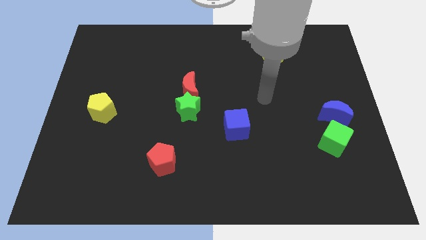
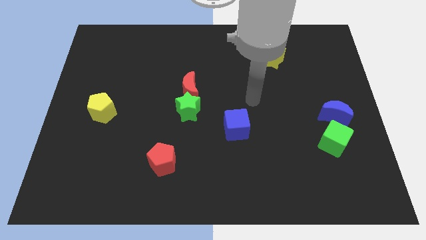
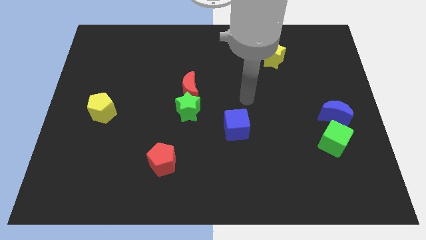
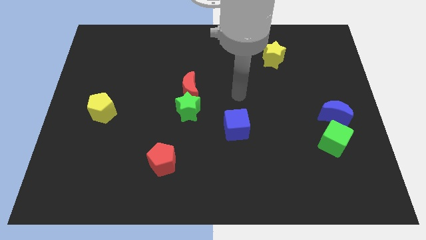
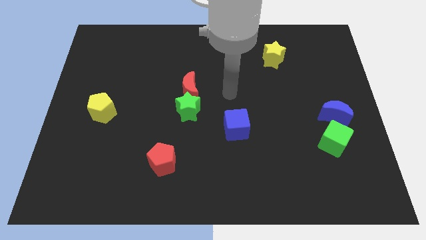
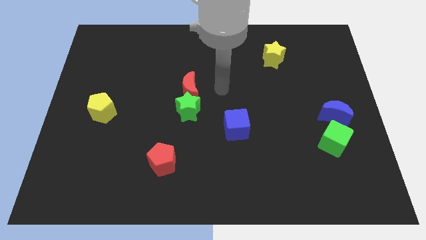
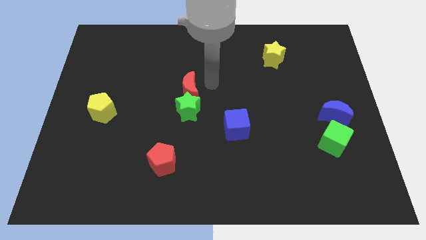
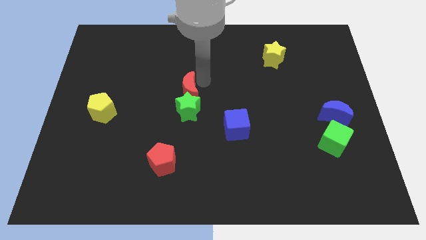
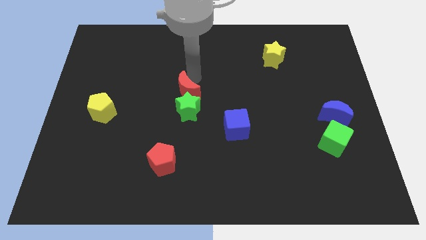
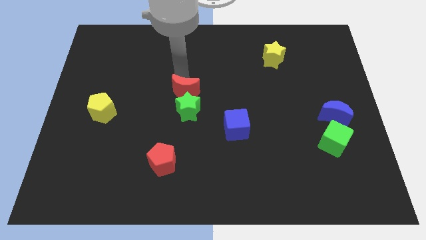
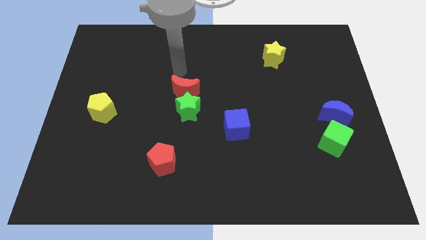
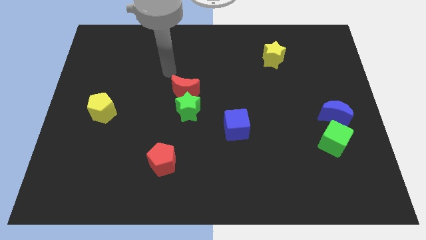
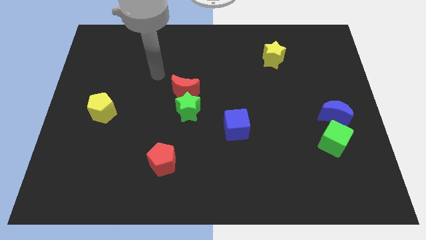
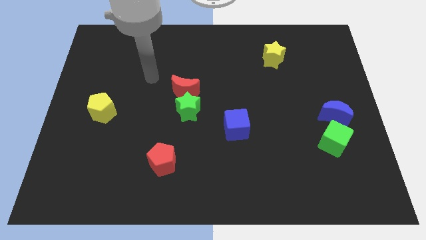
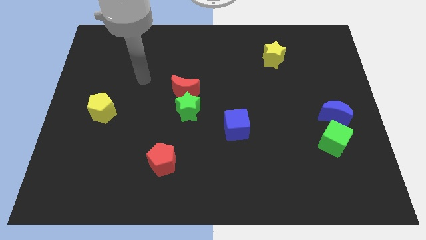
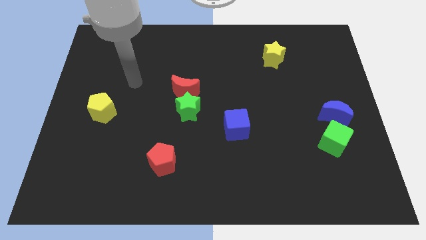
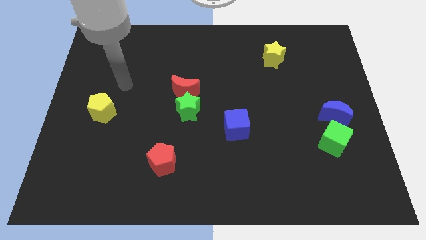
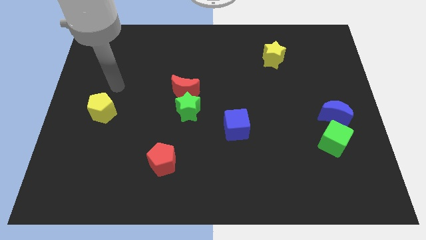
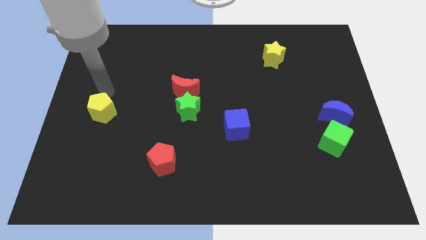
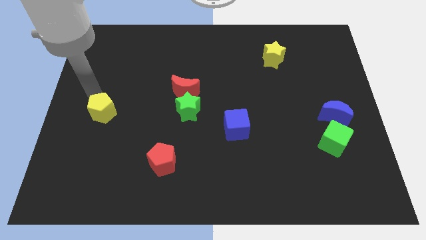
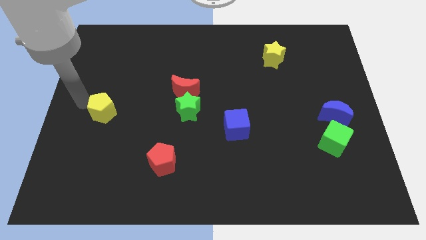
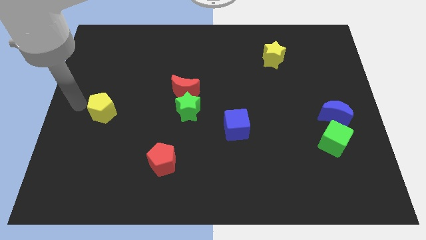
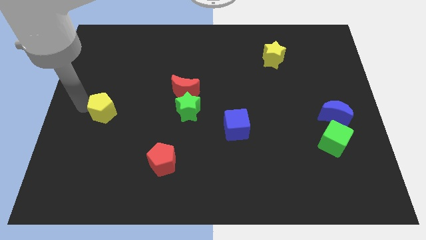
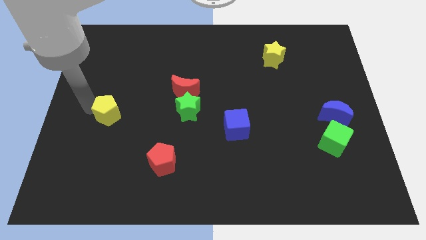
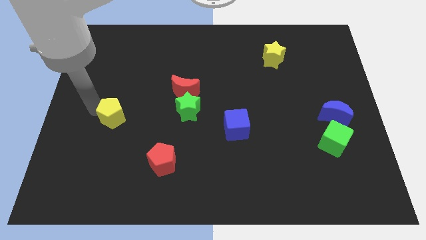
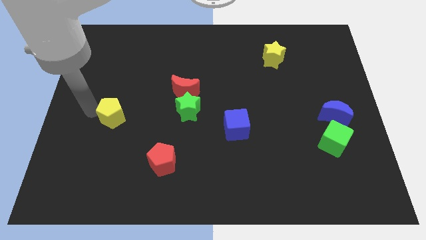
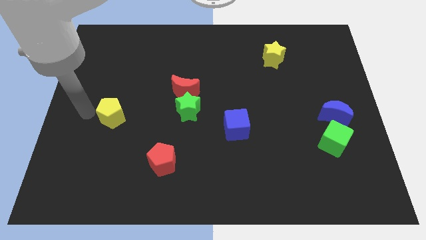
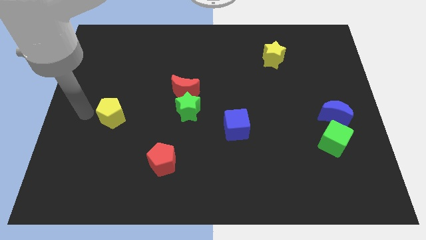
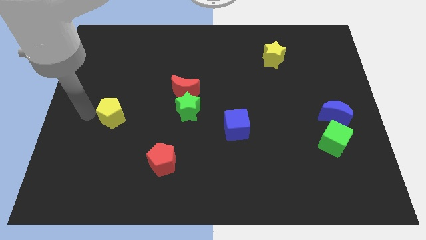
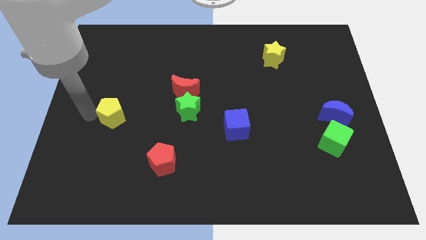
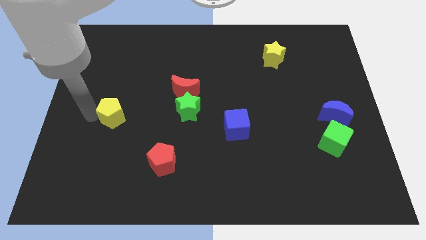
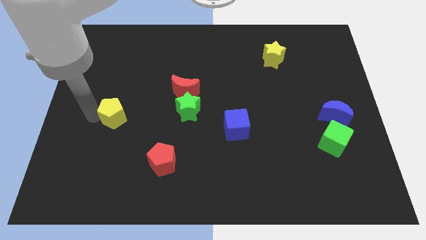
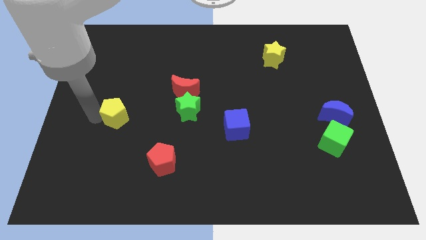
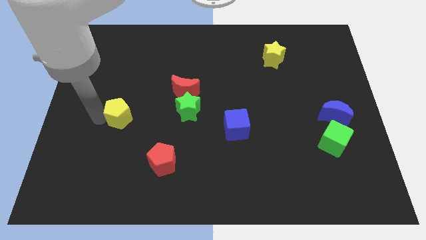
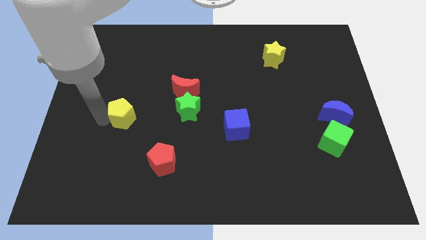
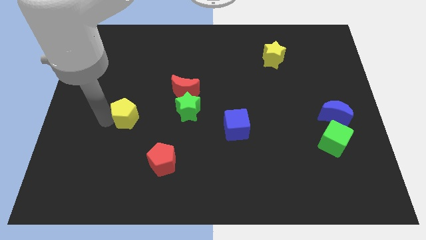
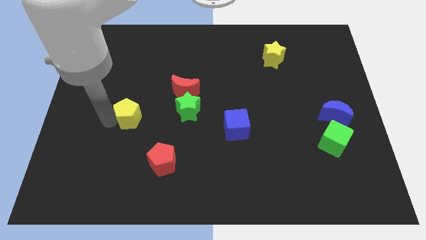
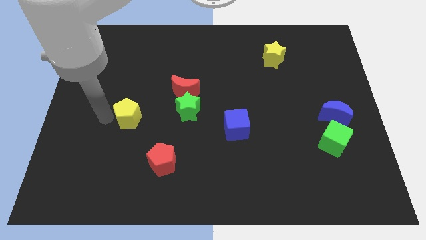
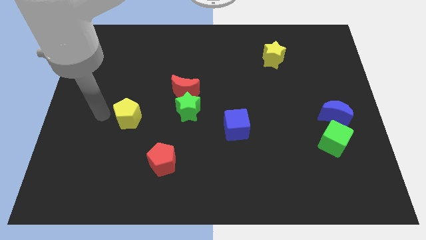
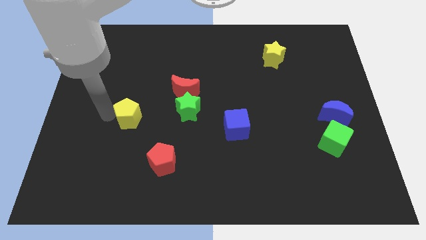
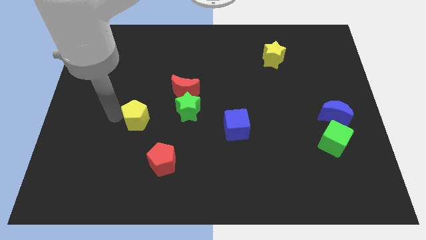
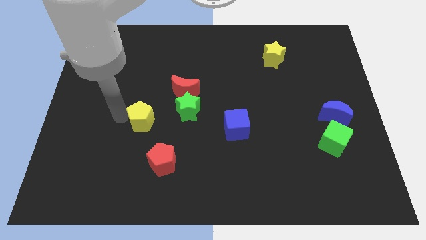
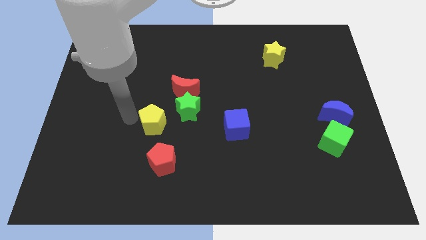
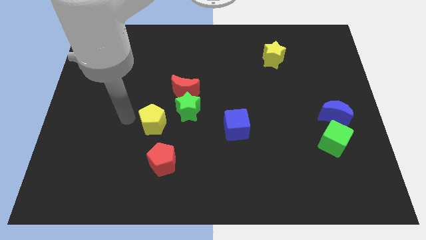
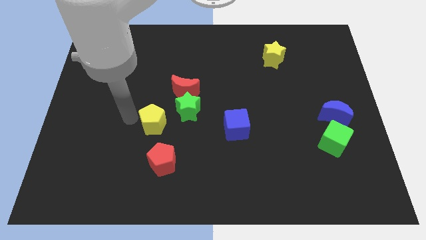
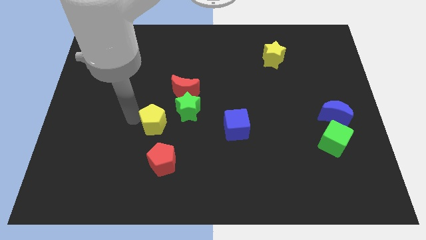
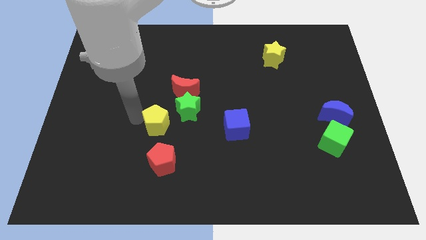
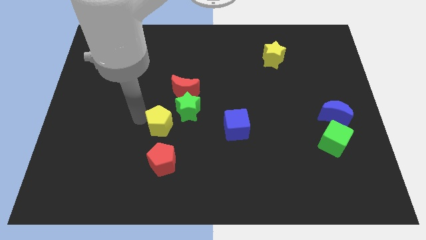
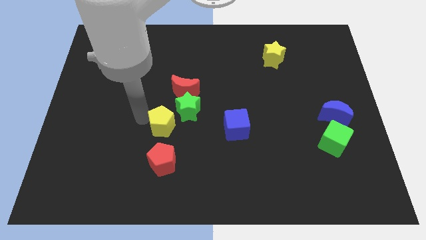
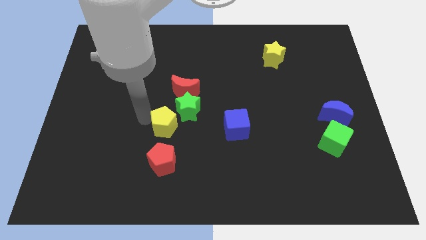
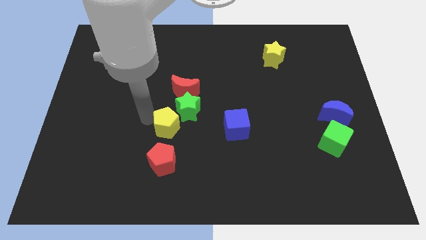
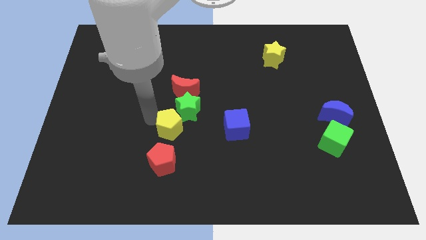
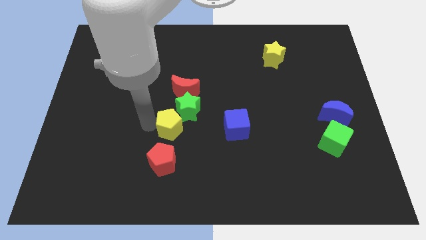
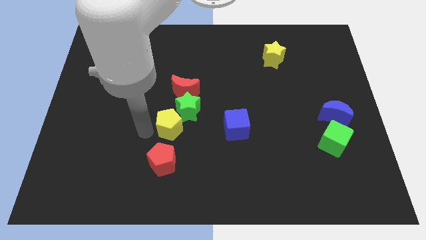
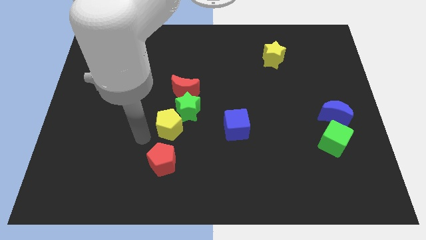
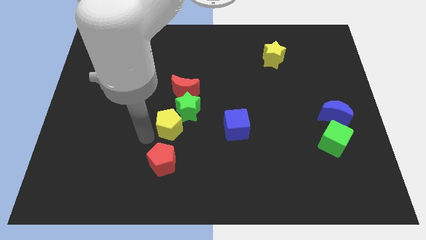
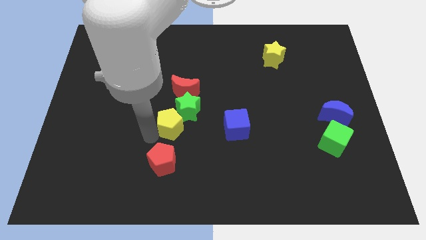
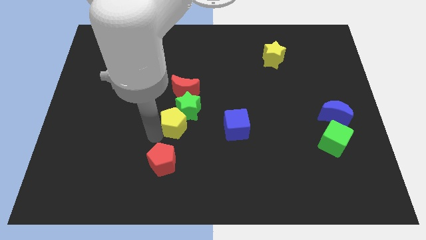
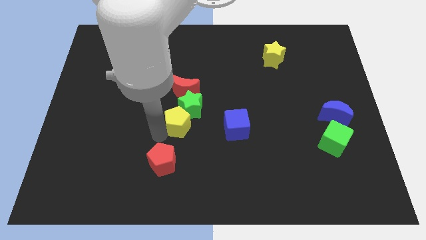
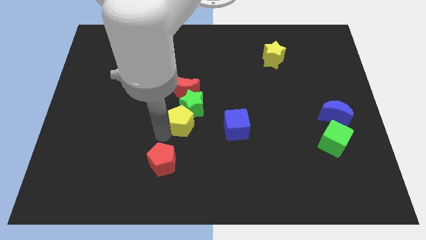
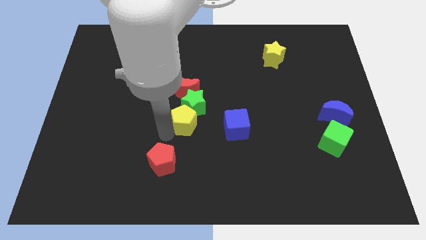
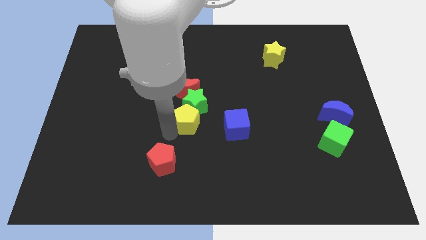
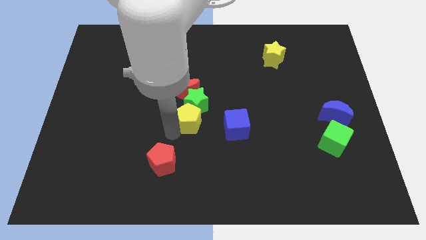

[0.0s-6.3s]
slide the yellow pentagon right

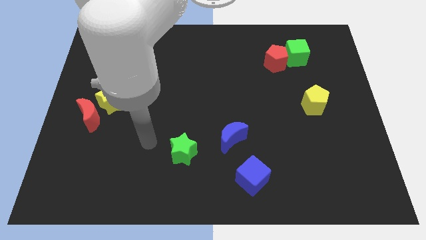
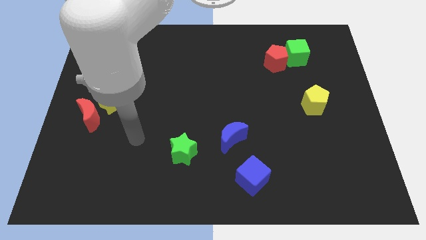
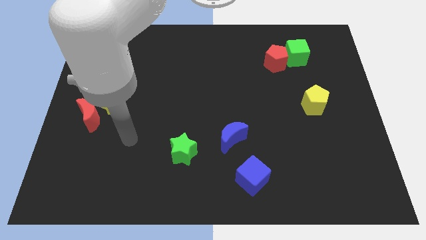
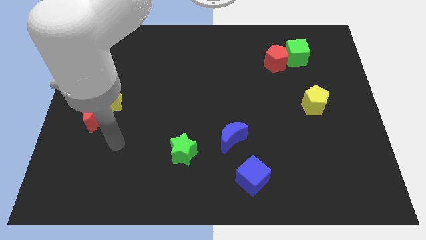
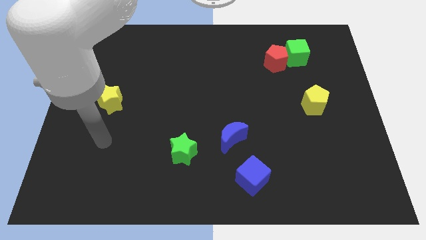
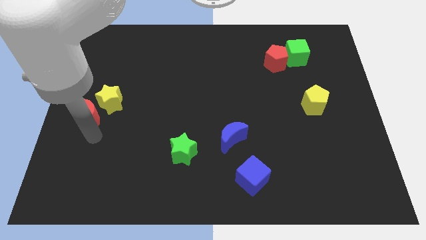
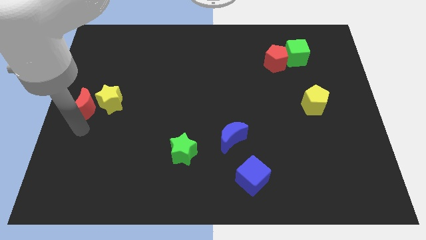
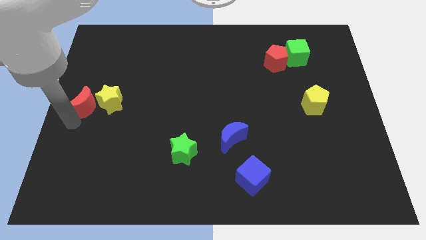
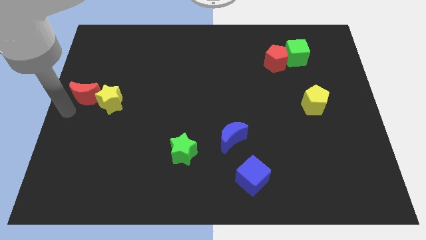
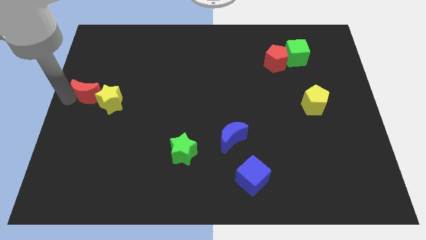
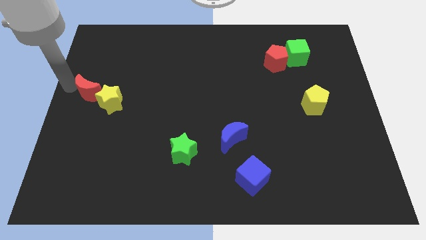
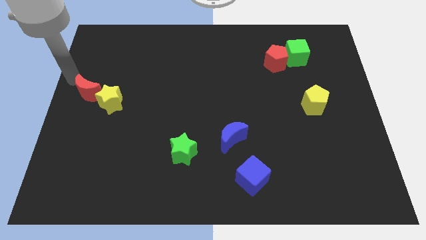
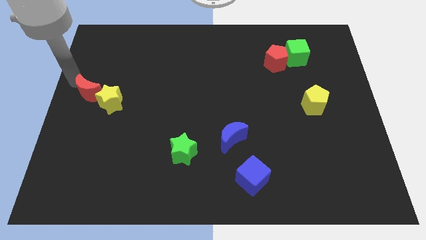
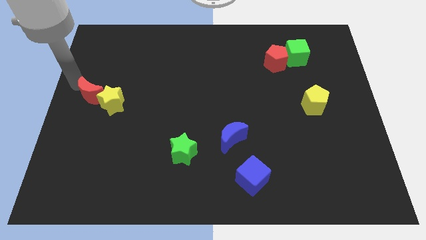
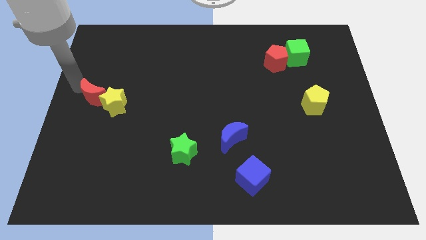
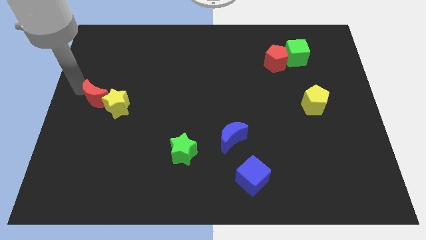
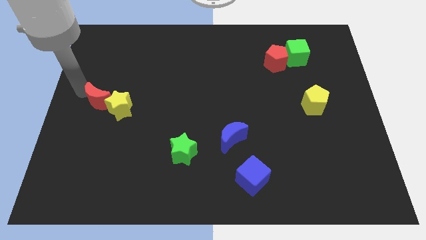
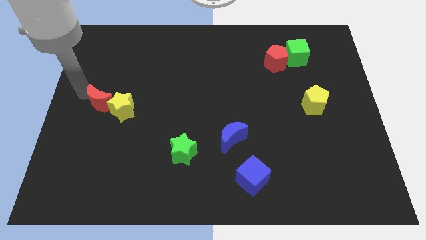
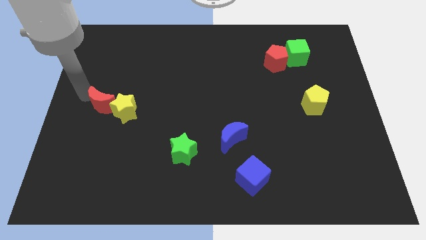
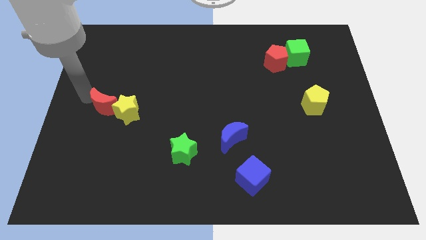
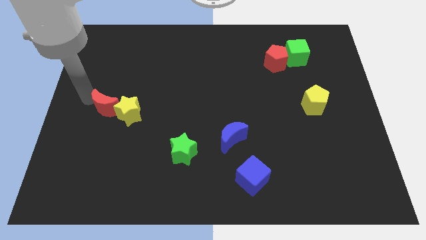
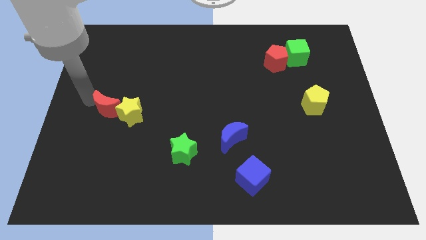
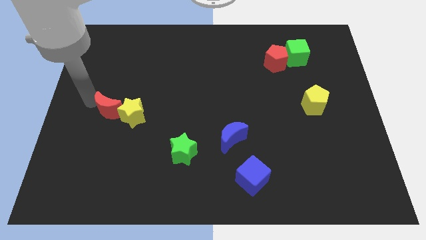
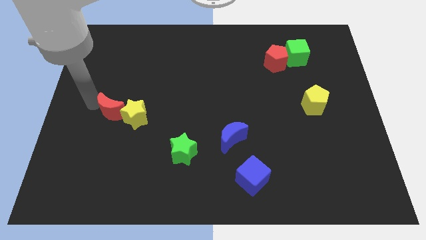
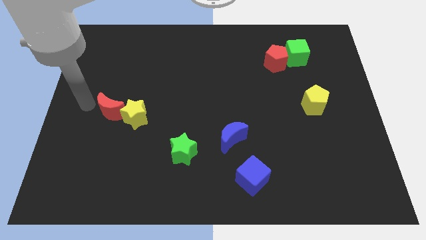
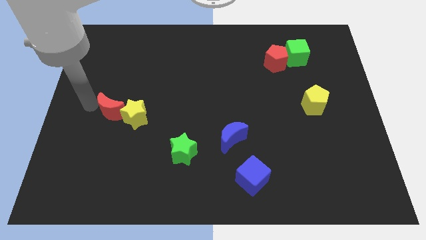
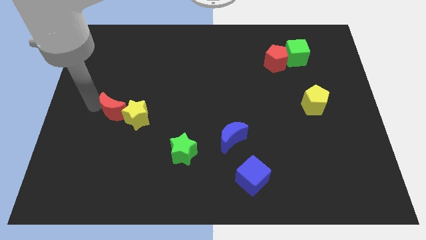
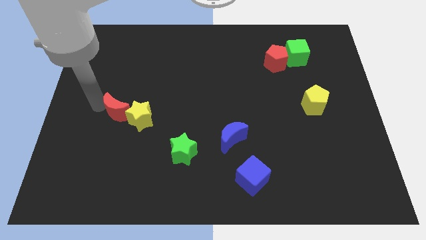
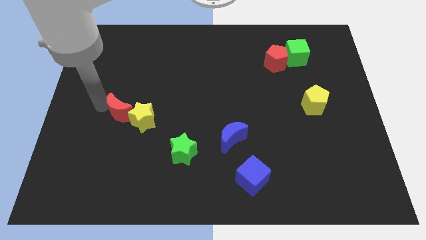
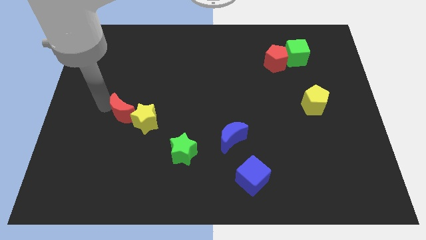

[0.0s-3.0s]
slide the red moon a bit to the right
